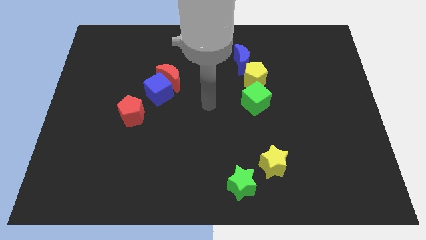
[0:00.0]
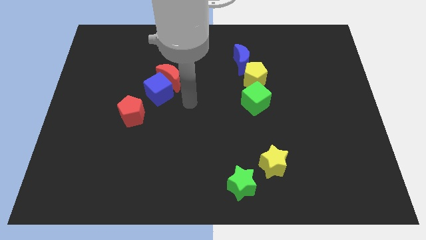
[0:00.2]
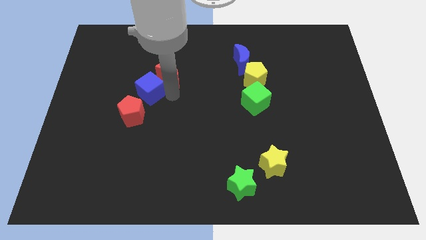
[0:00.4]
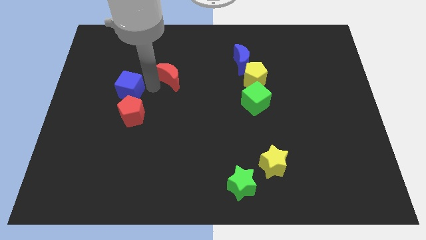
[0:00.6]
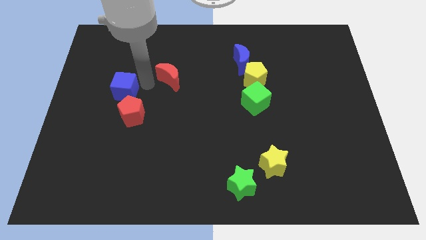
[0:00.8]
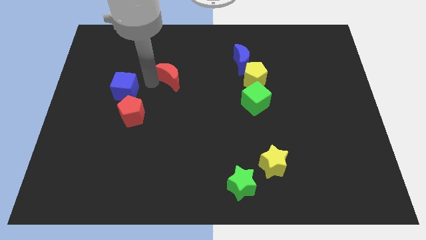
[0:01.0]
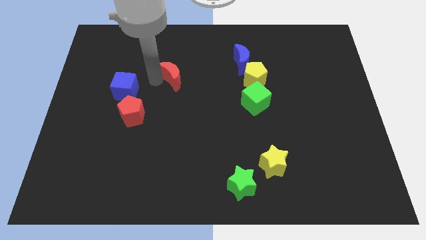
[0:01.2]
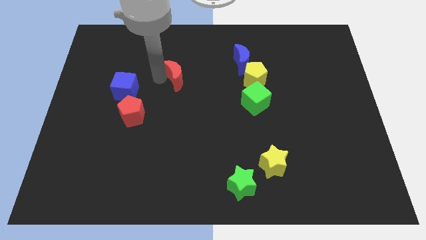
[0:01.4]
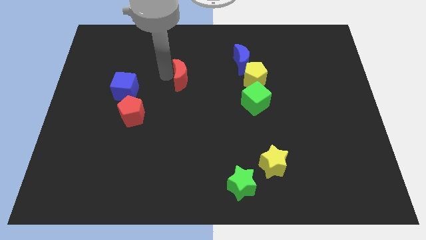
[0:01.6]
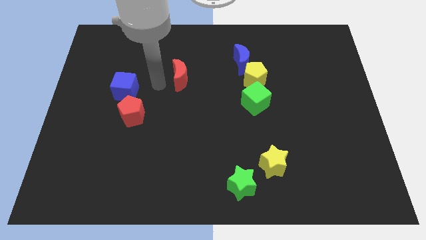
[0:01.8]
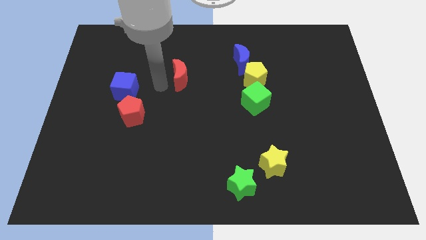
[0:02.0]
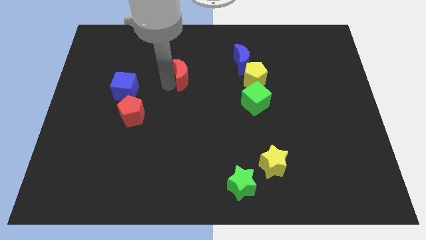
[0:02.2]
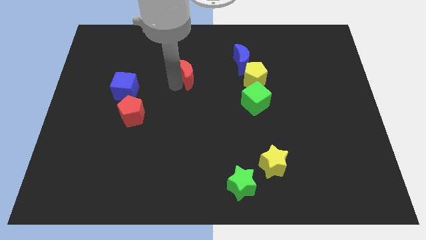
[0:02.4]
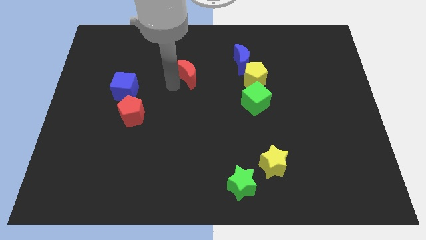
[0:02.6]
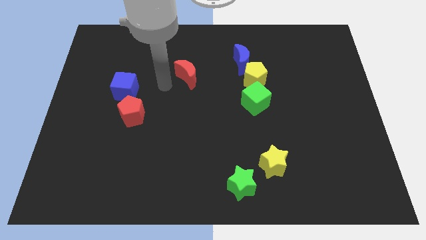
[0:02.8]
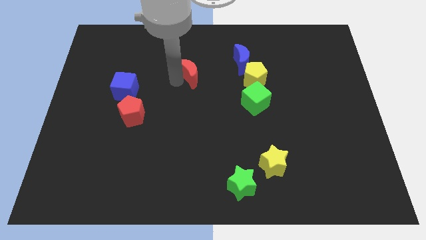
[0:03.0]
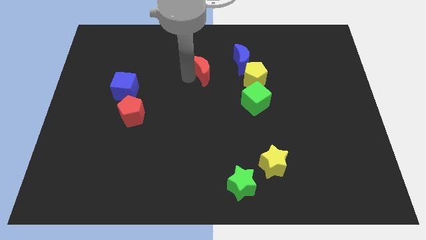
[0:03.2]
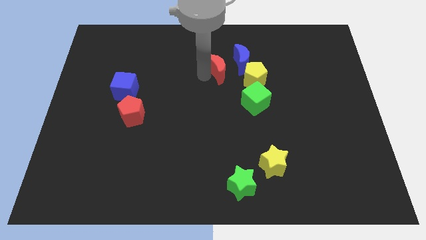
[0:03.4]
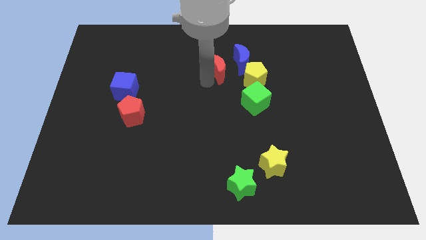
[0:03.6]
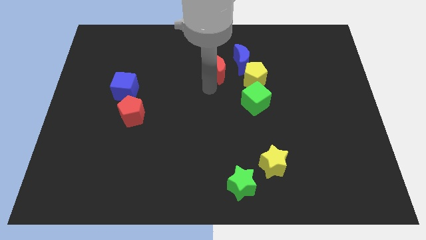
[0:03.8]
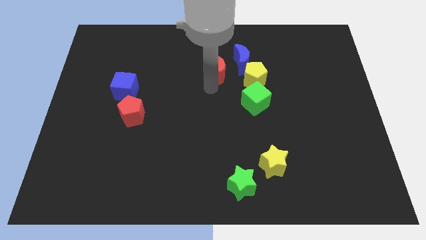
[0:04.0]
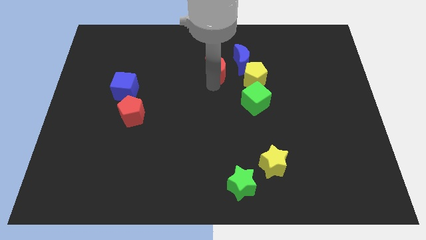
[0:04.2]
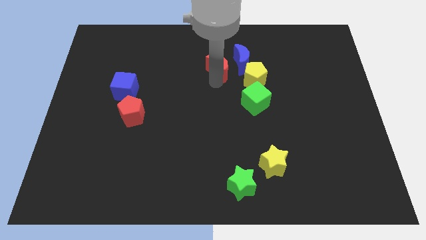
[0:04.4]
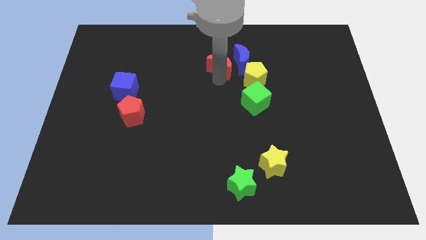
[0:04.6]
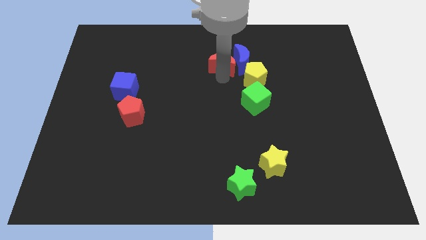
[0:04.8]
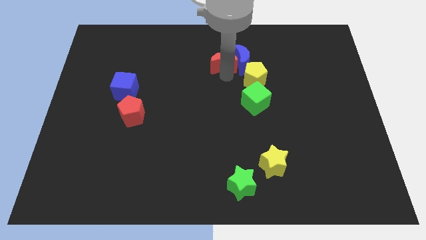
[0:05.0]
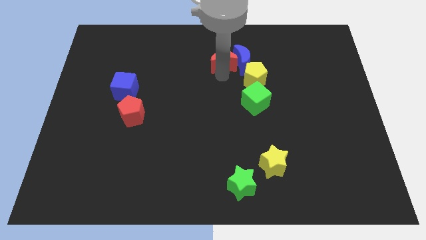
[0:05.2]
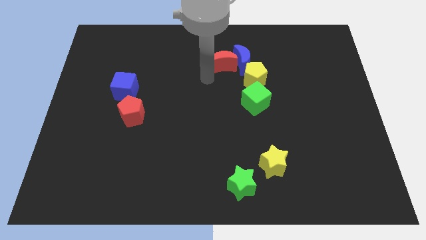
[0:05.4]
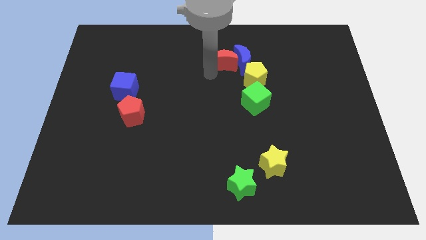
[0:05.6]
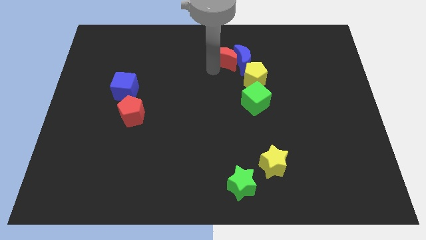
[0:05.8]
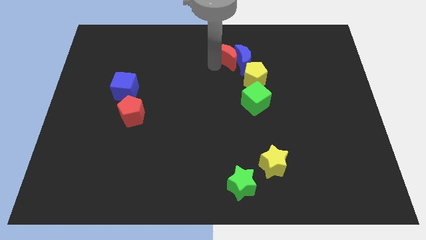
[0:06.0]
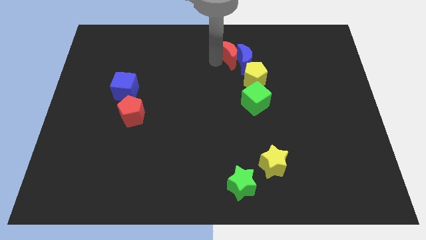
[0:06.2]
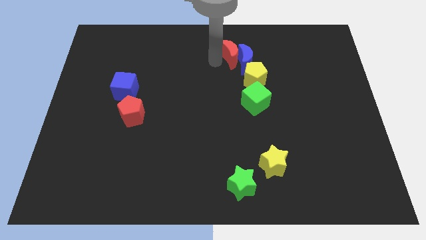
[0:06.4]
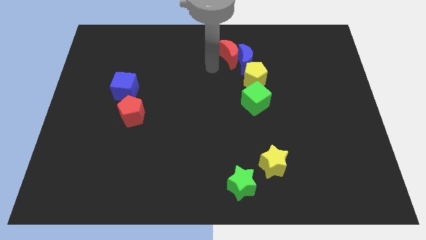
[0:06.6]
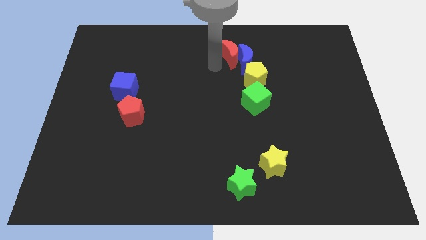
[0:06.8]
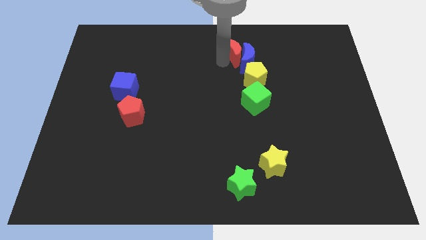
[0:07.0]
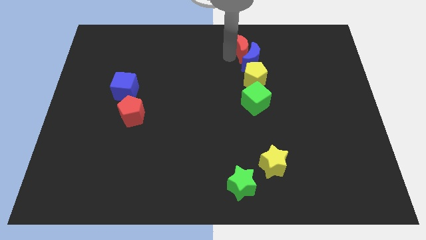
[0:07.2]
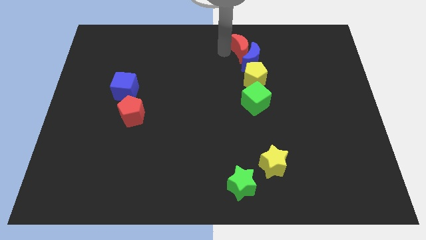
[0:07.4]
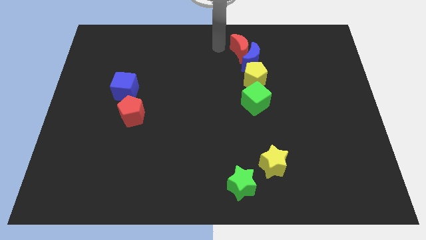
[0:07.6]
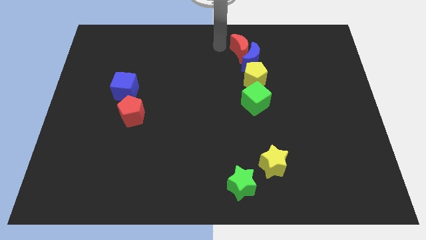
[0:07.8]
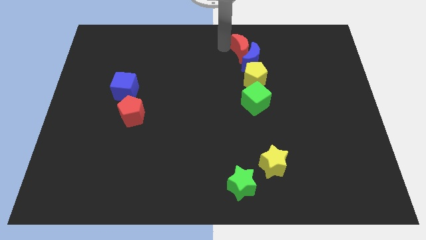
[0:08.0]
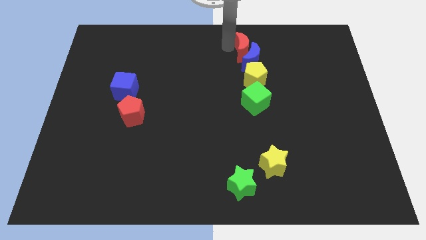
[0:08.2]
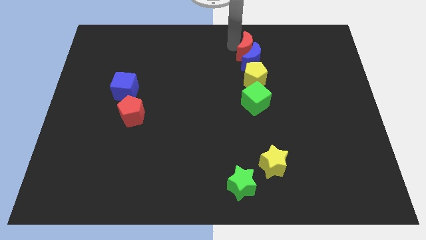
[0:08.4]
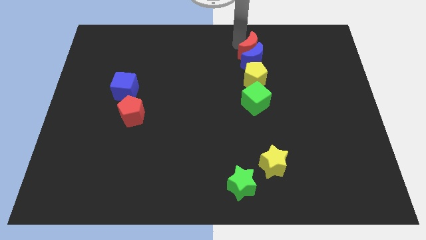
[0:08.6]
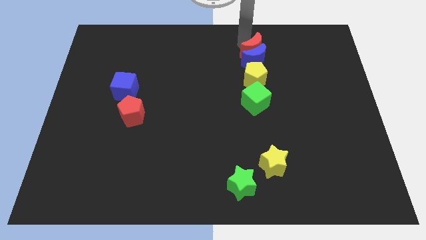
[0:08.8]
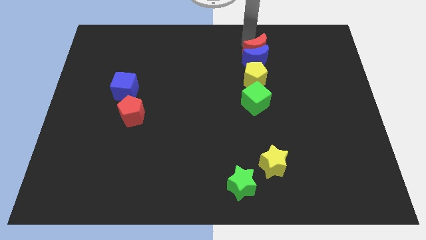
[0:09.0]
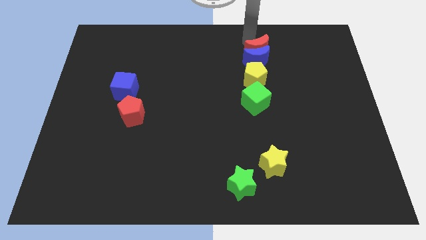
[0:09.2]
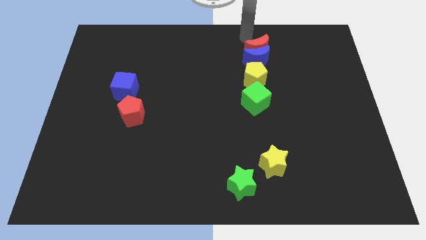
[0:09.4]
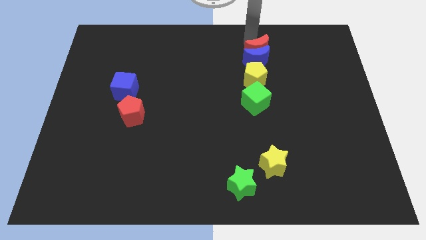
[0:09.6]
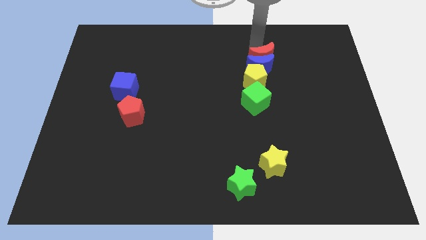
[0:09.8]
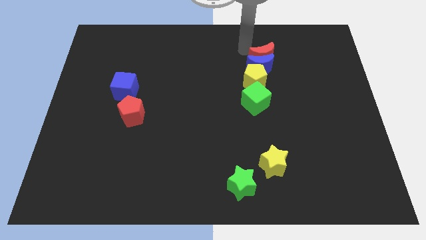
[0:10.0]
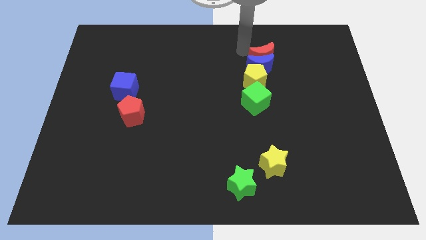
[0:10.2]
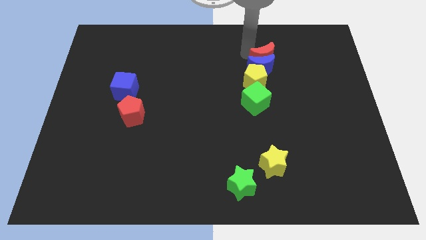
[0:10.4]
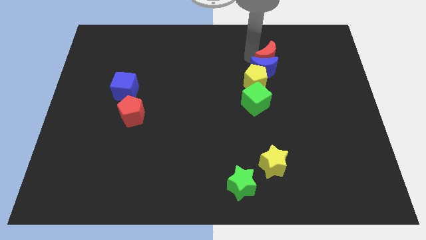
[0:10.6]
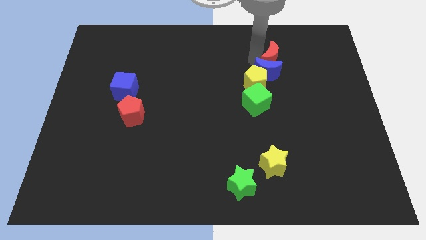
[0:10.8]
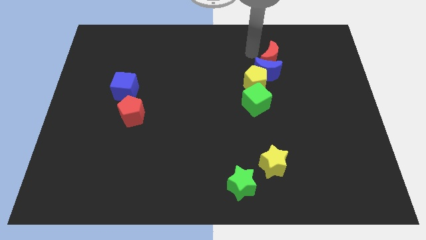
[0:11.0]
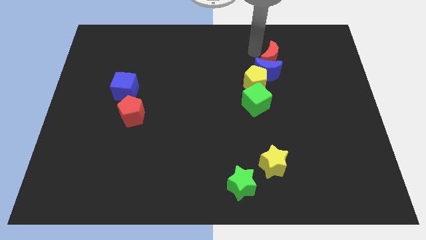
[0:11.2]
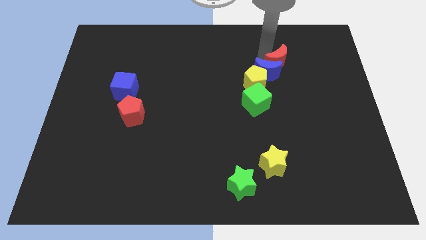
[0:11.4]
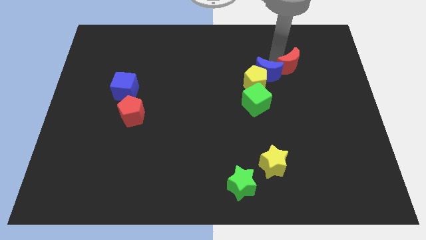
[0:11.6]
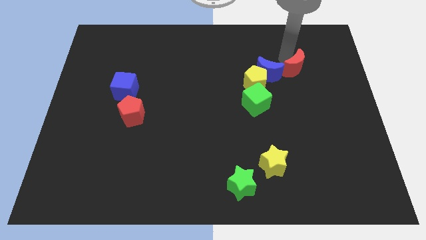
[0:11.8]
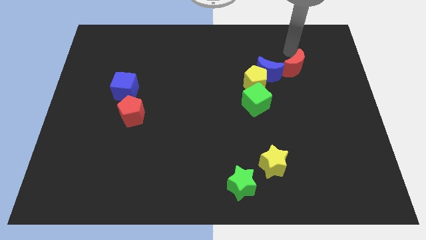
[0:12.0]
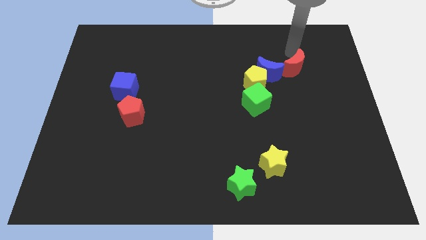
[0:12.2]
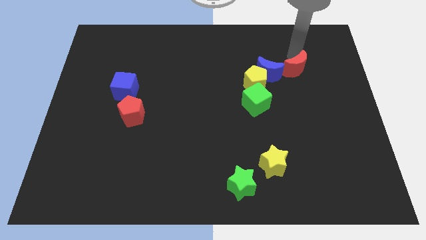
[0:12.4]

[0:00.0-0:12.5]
move the red moon to the right of the yellow pentagon

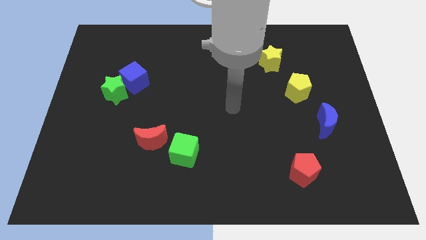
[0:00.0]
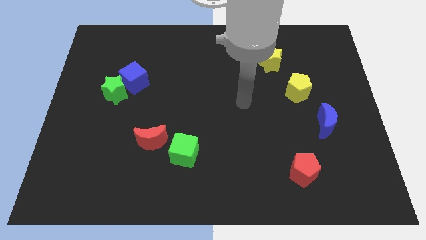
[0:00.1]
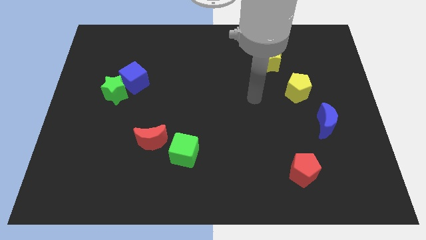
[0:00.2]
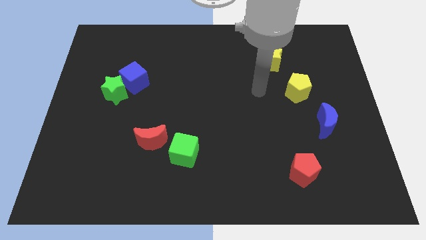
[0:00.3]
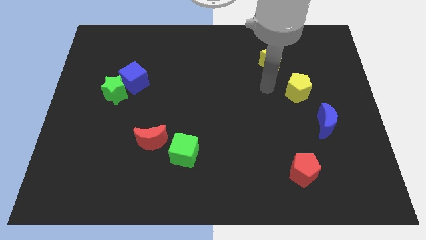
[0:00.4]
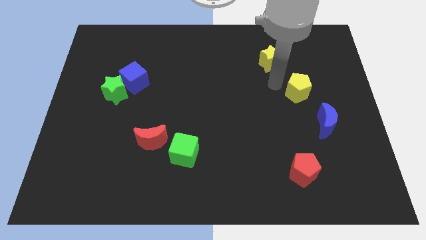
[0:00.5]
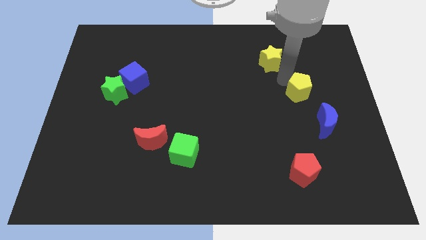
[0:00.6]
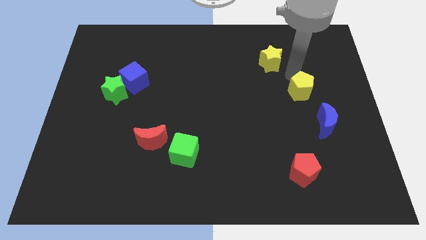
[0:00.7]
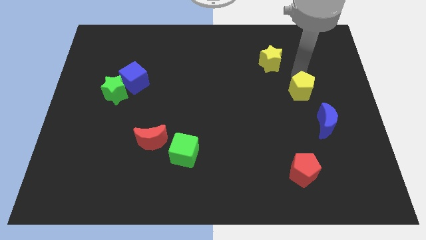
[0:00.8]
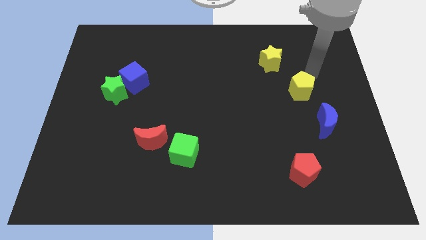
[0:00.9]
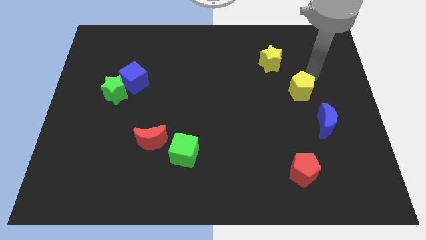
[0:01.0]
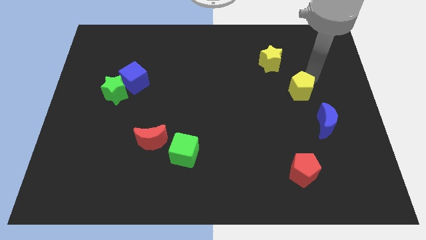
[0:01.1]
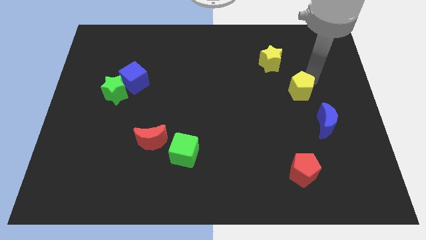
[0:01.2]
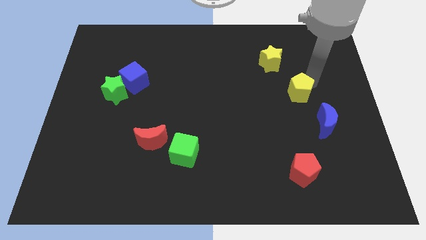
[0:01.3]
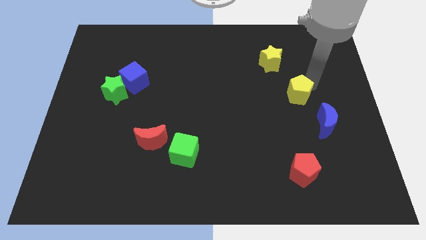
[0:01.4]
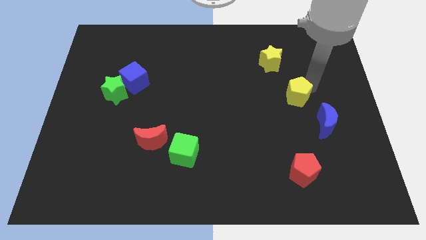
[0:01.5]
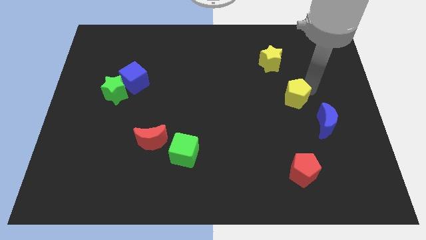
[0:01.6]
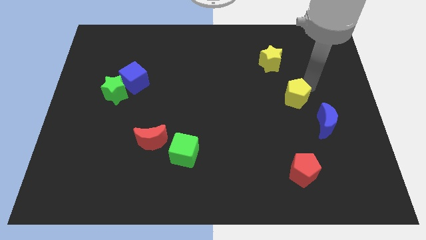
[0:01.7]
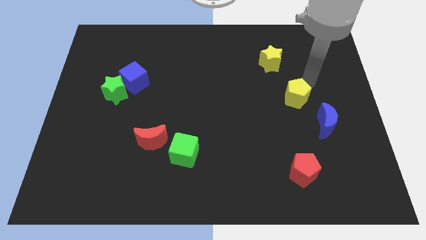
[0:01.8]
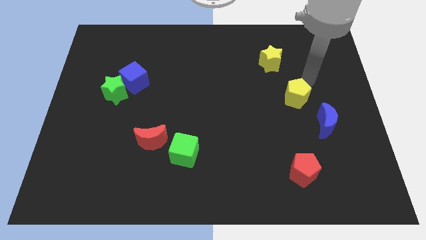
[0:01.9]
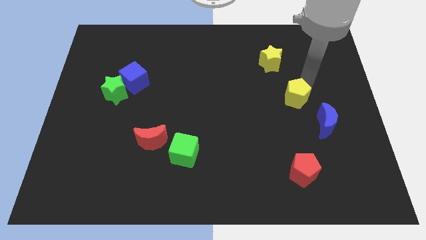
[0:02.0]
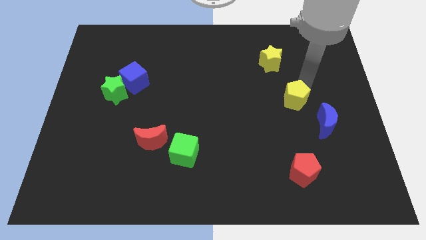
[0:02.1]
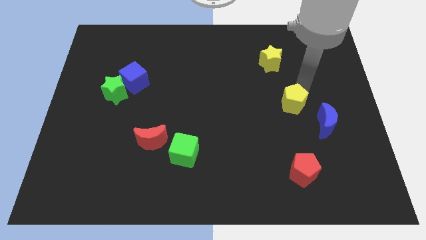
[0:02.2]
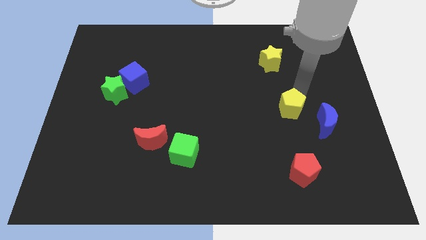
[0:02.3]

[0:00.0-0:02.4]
slide the yellow pentagon left of the blue moon
